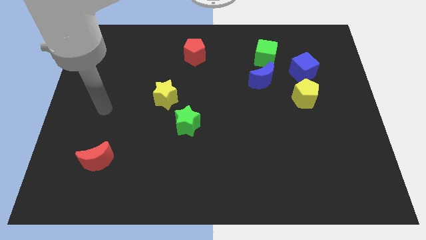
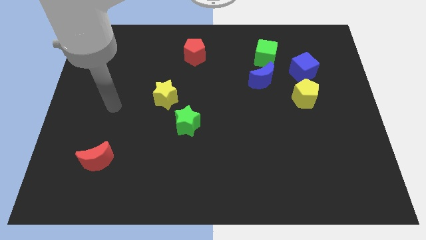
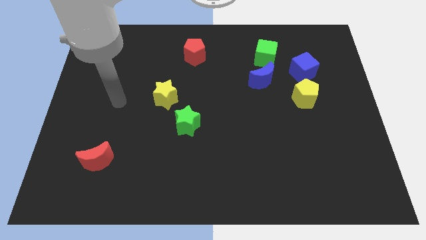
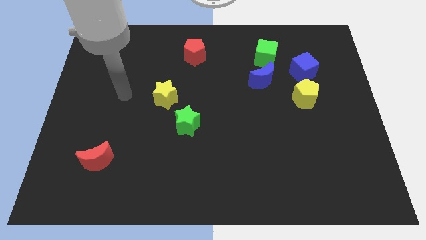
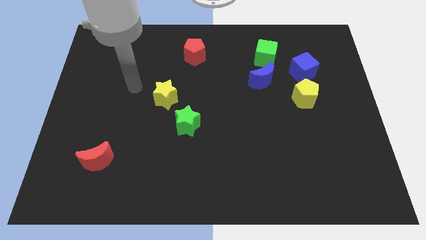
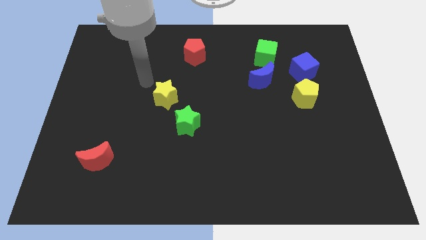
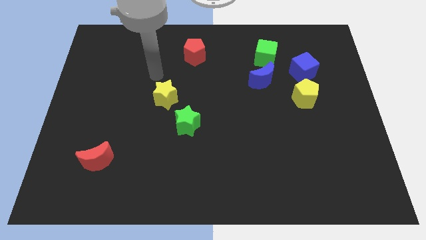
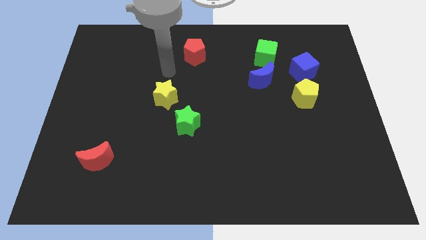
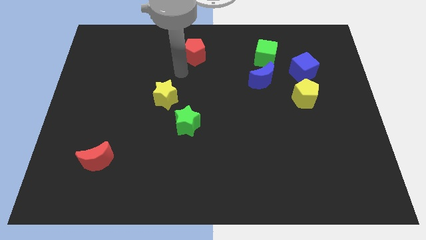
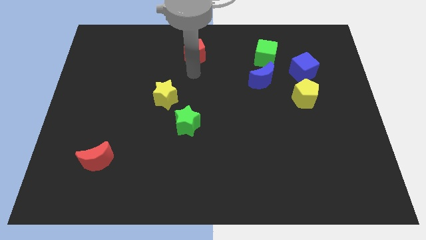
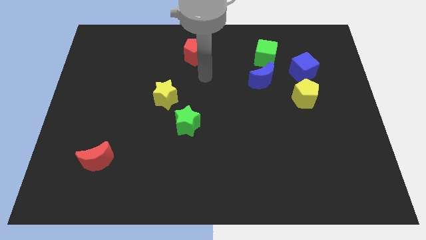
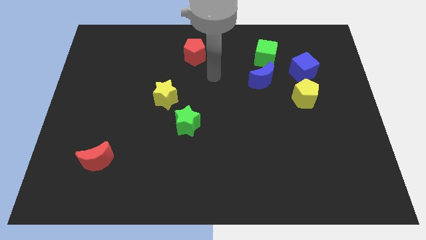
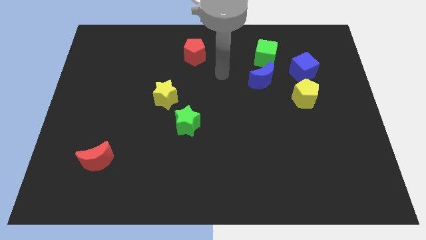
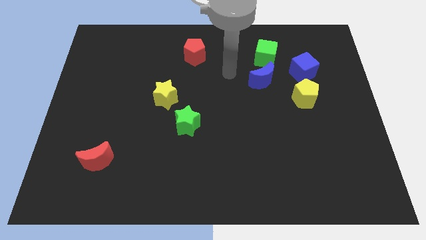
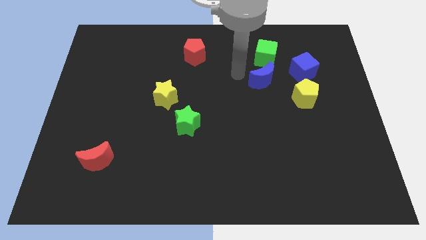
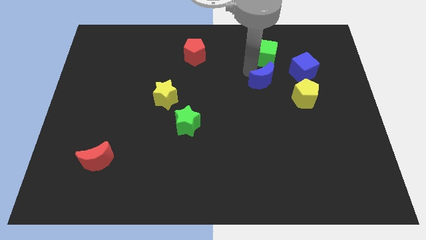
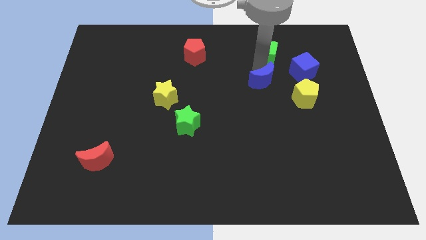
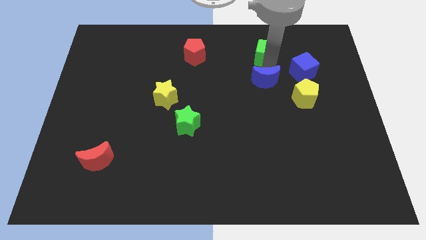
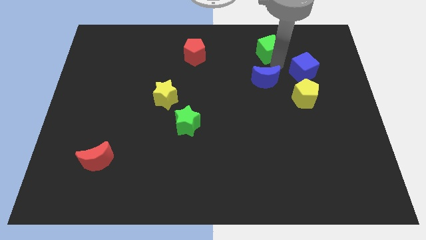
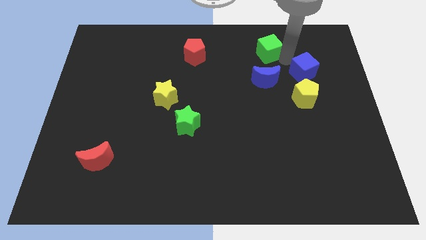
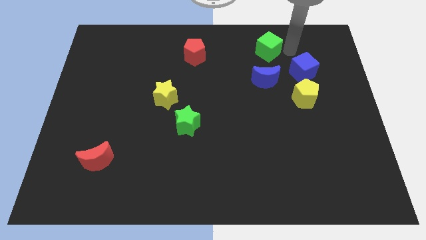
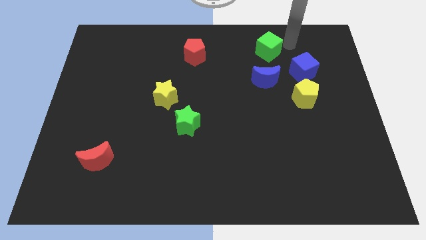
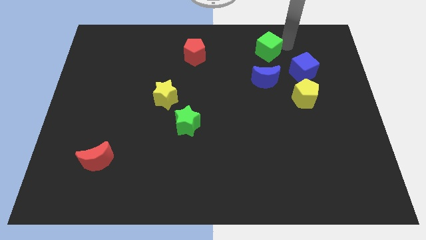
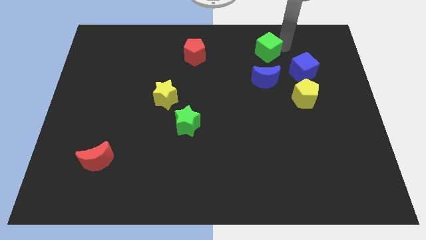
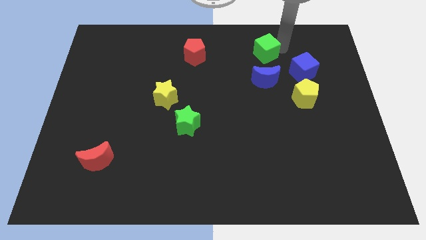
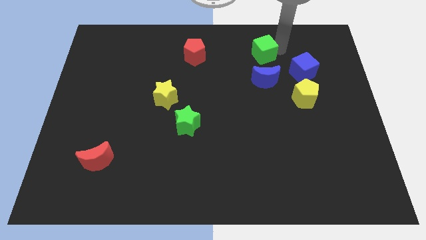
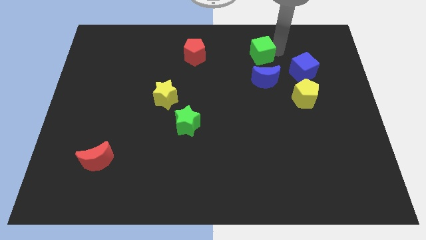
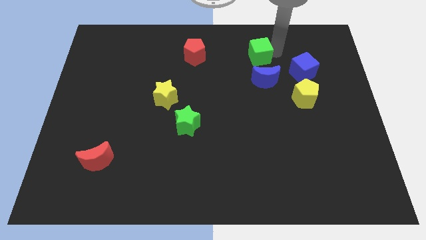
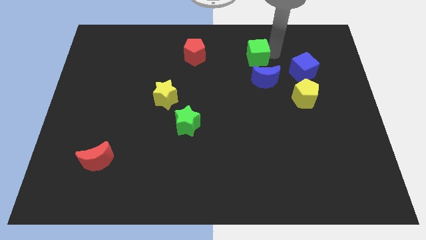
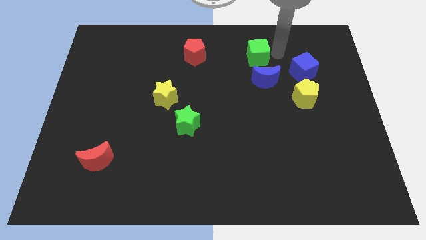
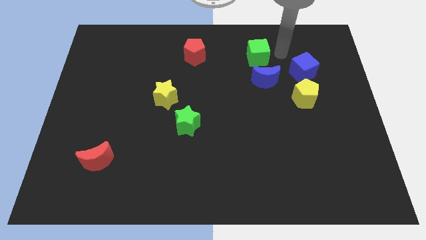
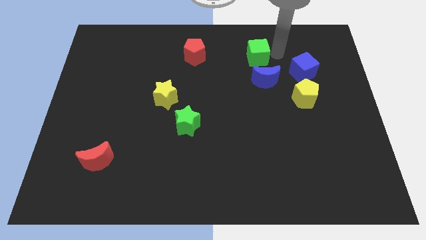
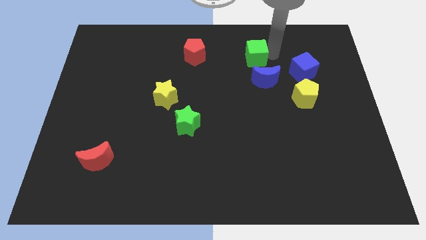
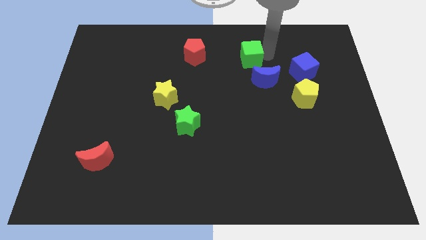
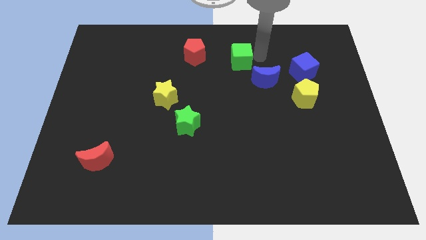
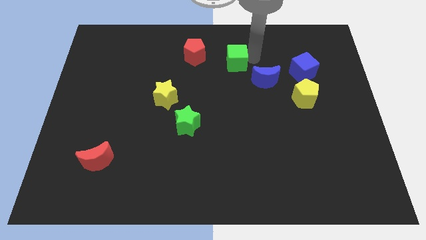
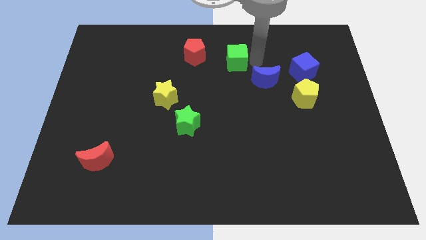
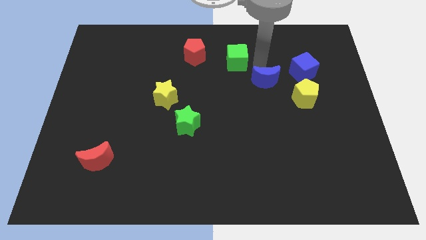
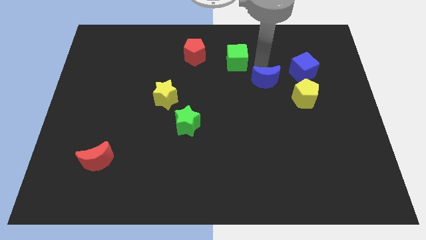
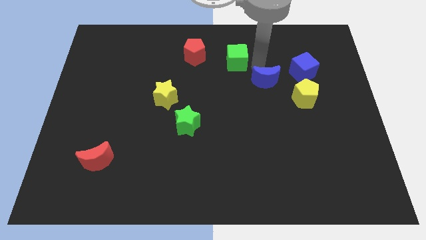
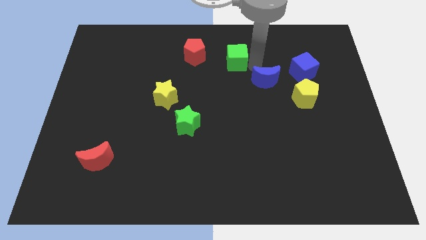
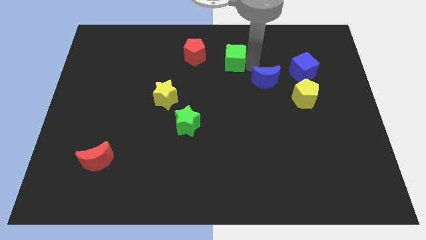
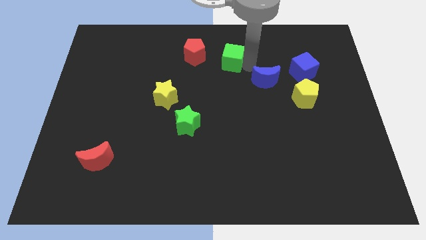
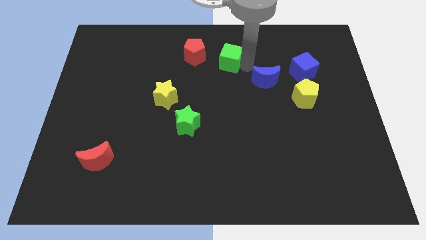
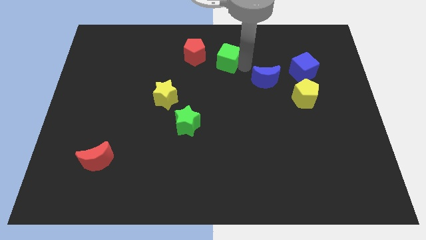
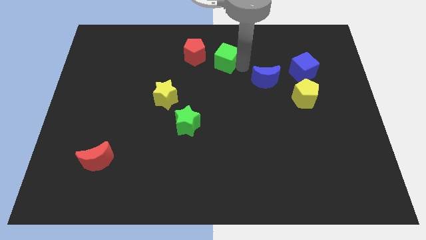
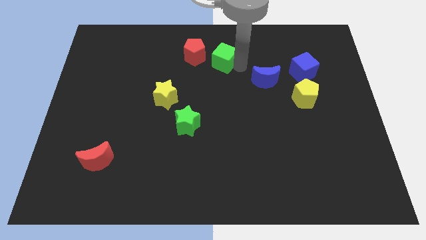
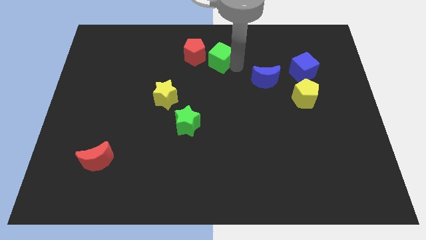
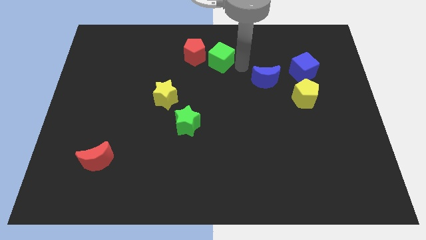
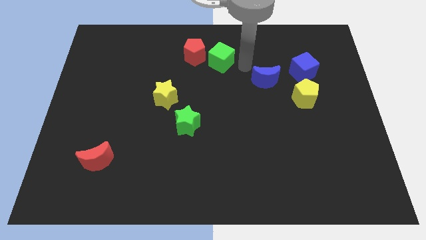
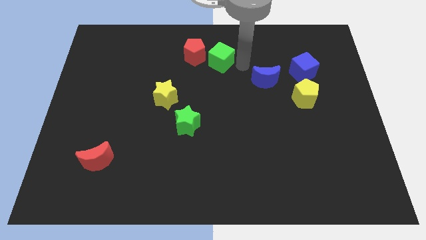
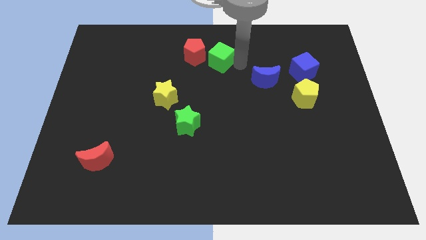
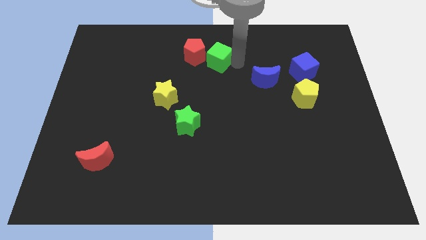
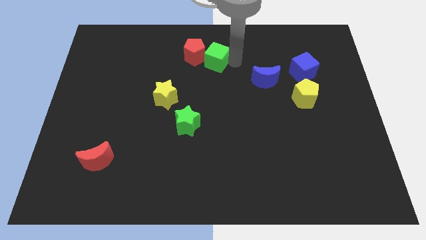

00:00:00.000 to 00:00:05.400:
move the green cube to the red pentagon
